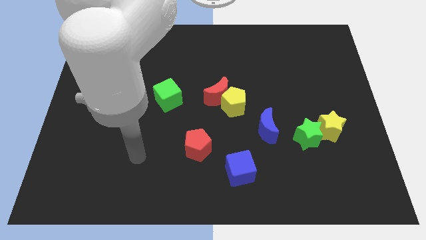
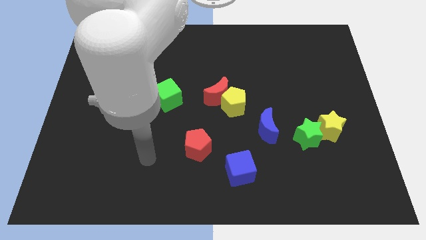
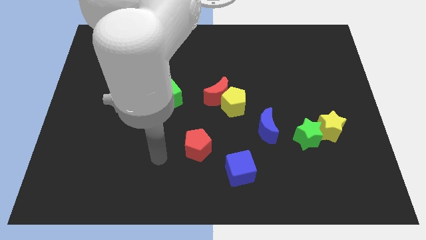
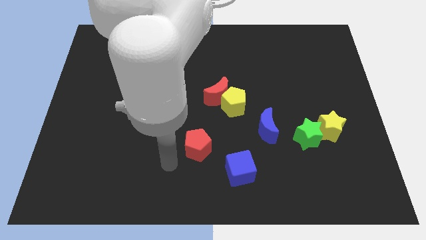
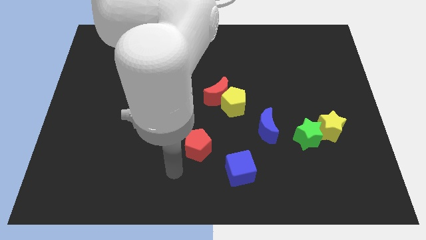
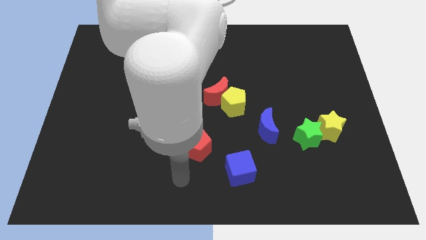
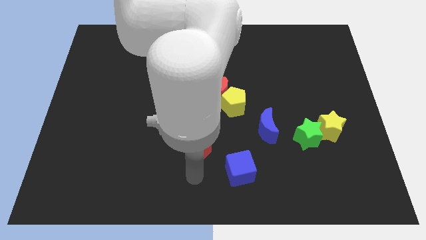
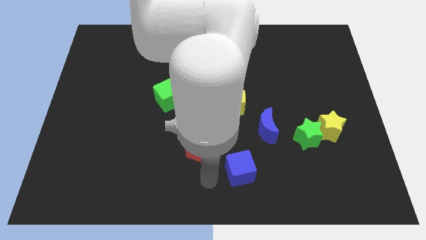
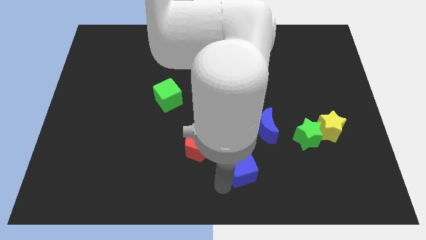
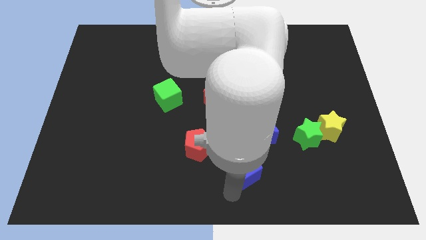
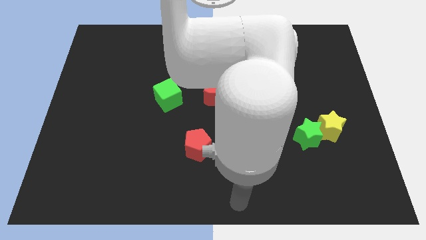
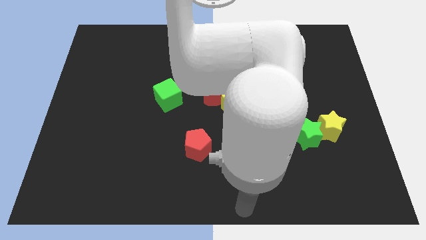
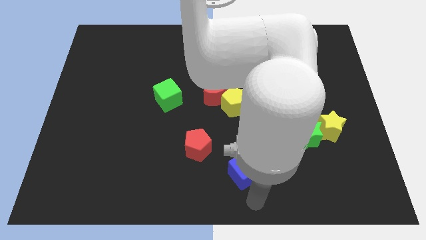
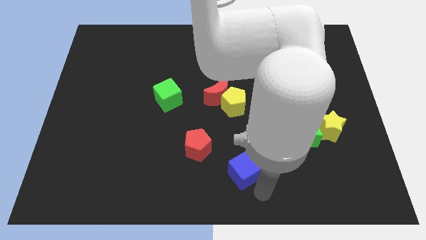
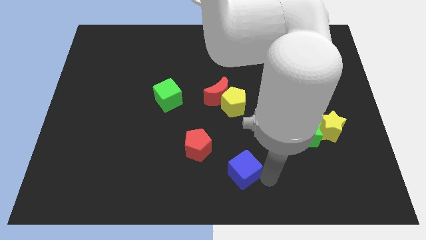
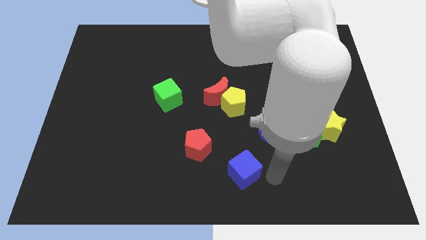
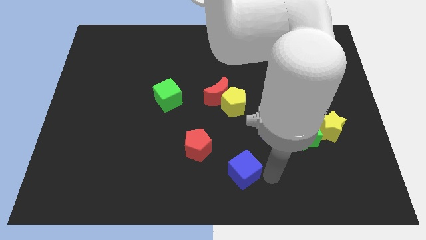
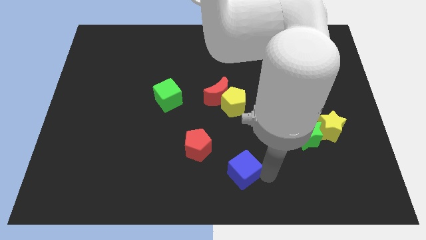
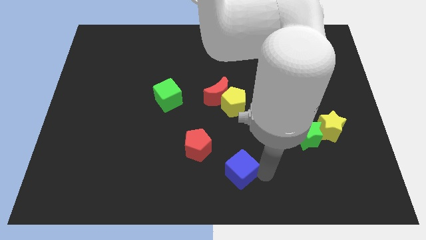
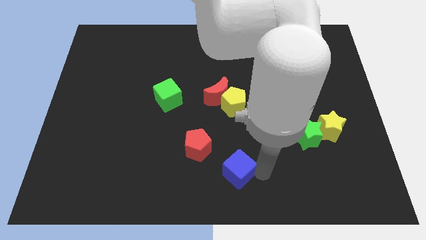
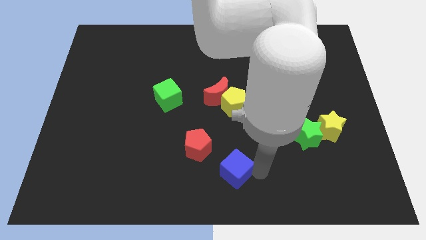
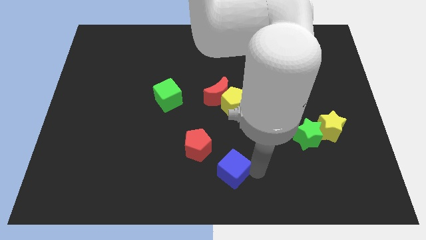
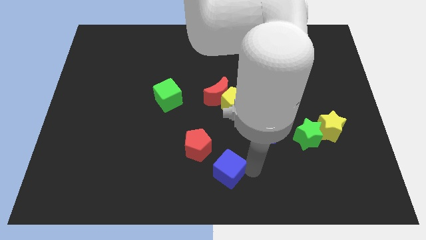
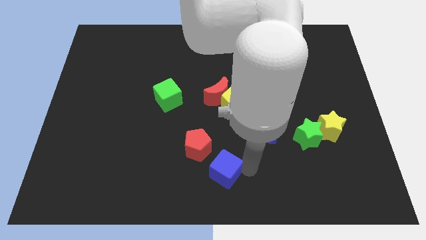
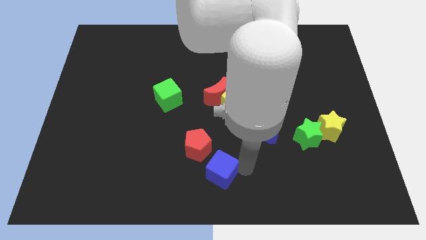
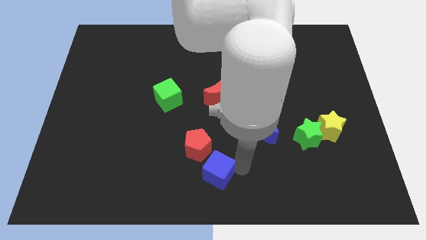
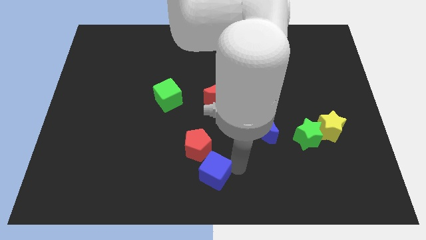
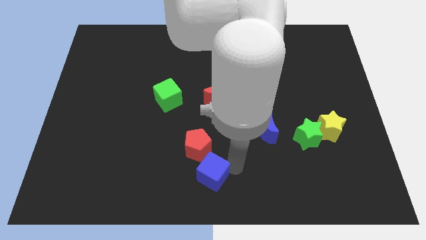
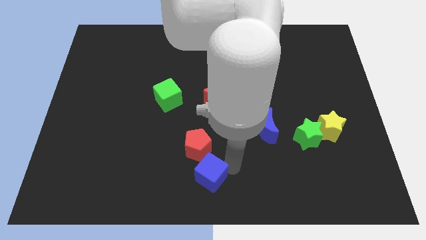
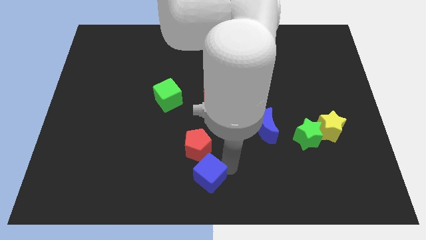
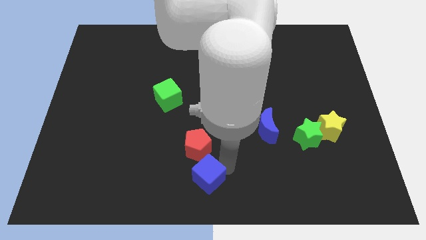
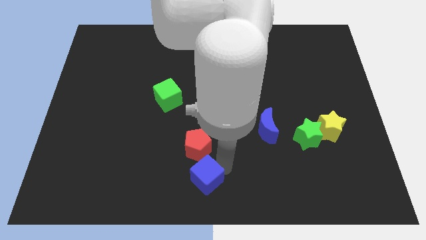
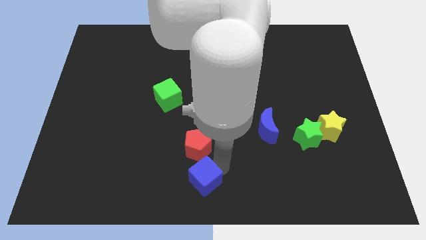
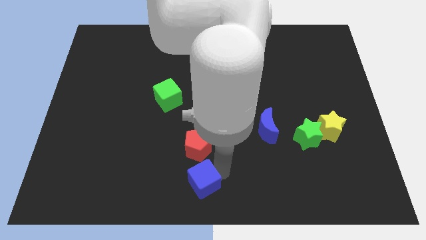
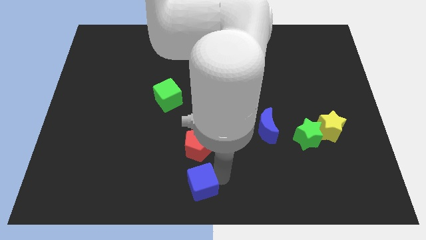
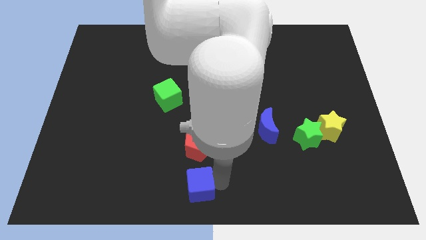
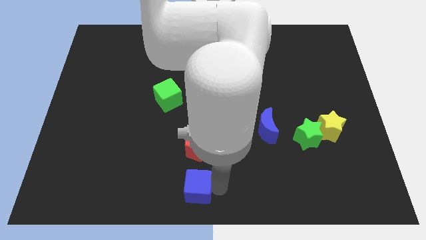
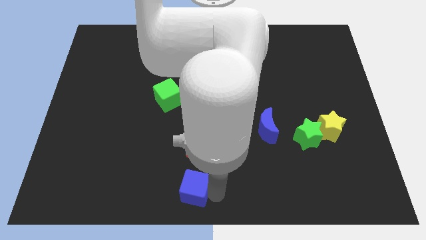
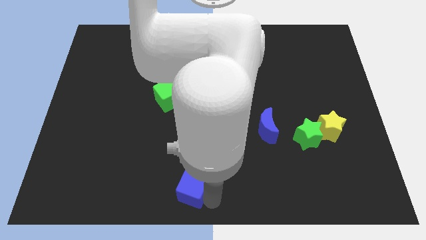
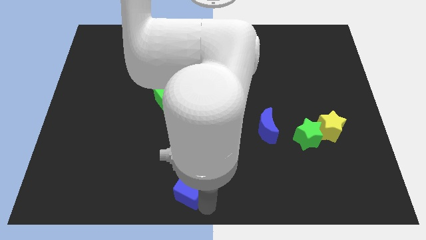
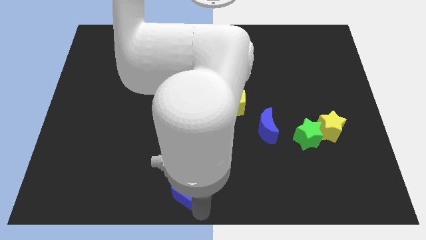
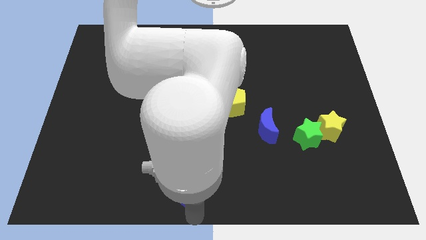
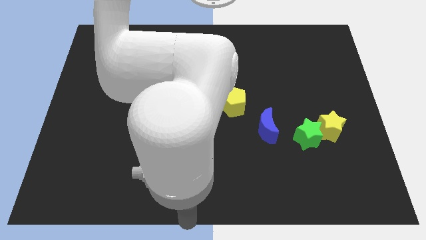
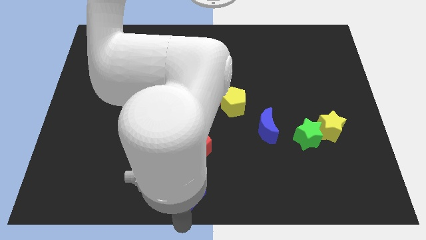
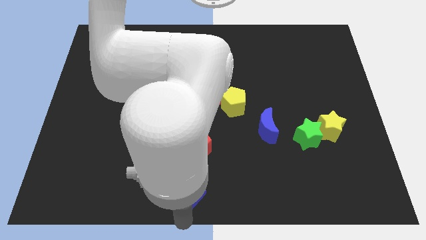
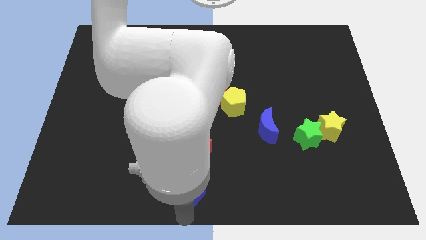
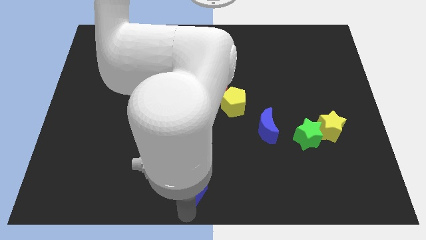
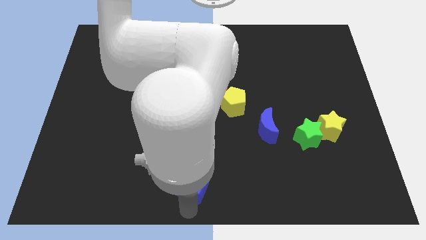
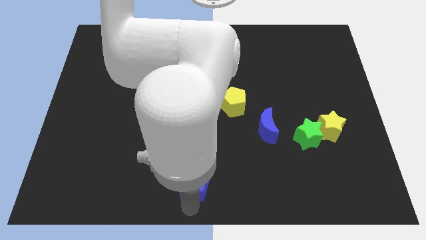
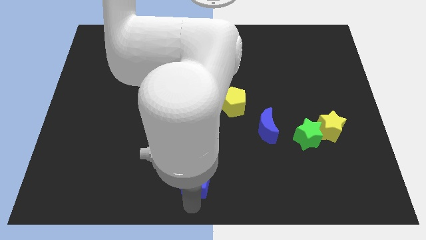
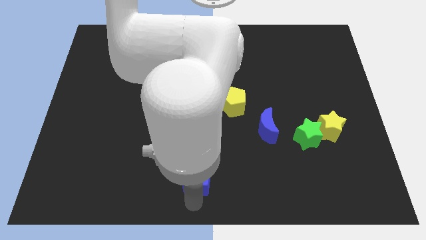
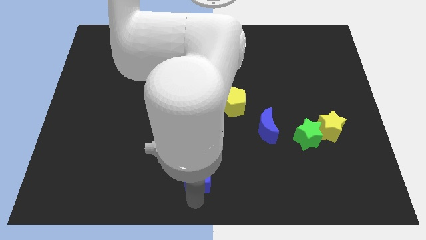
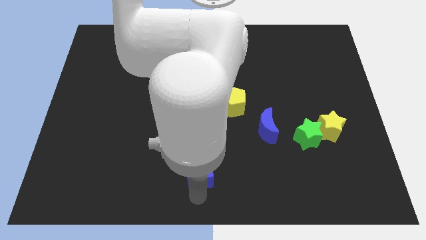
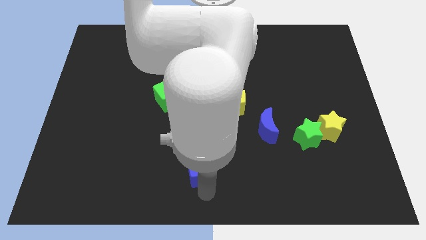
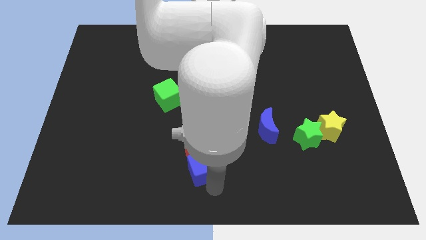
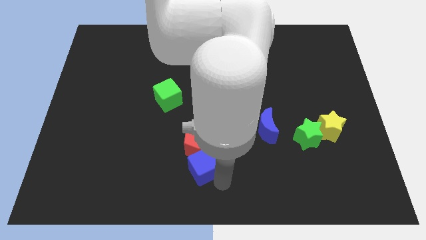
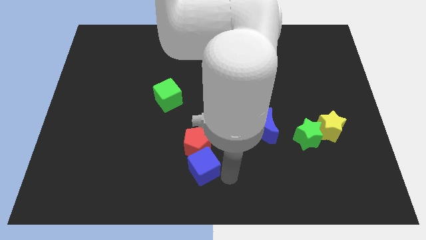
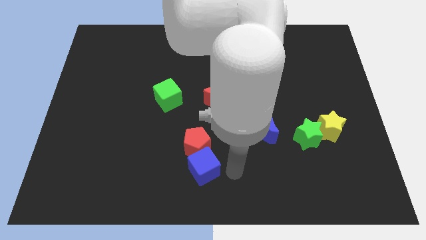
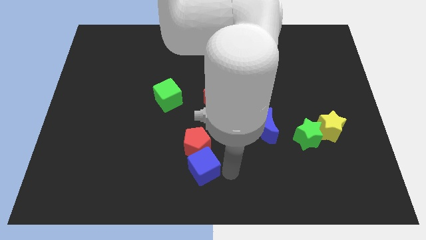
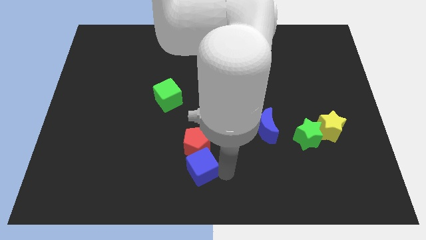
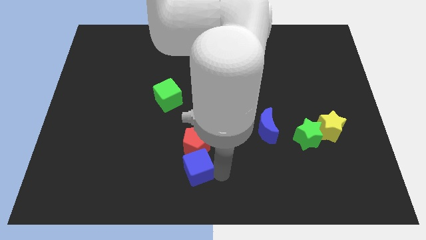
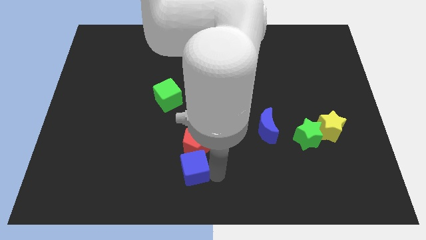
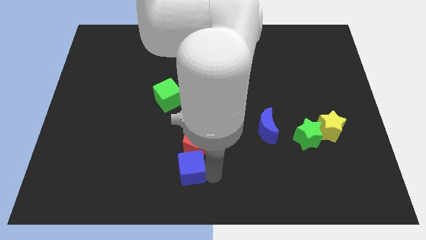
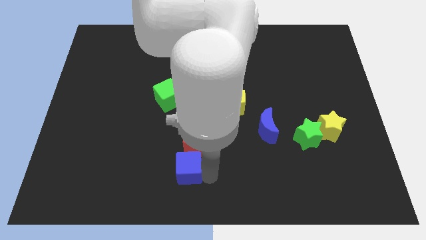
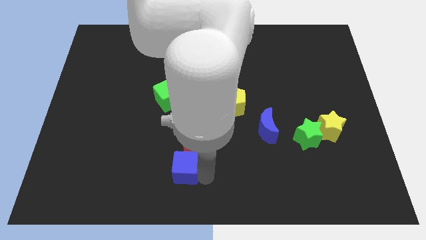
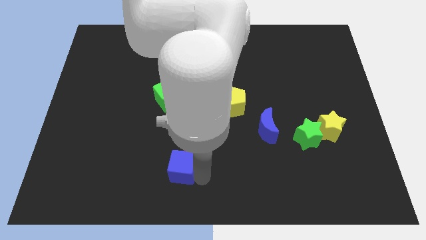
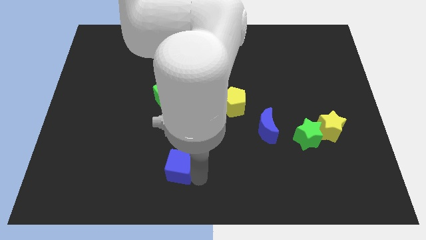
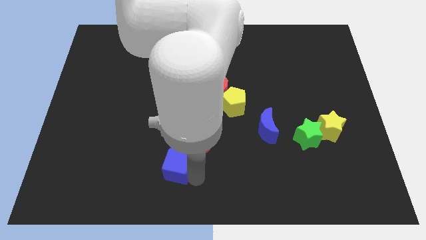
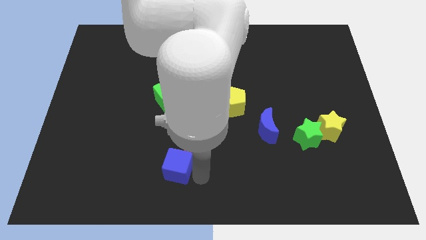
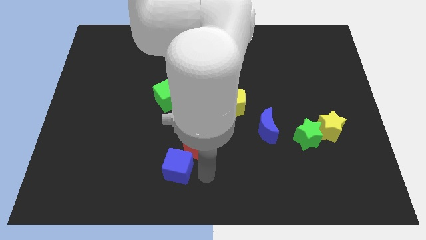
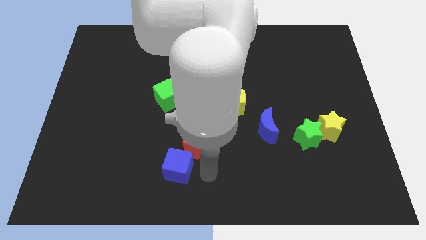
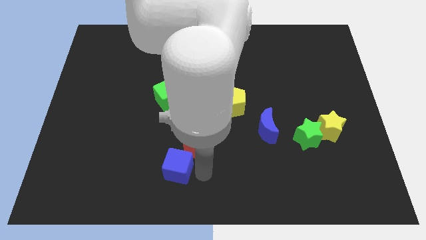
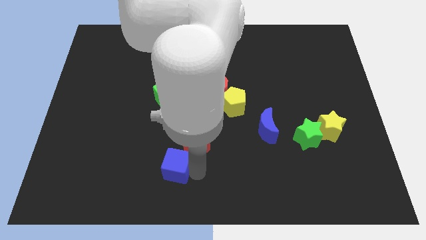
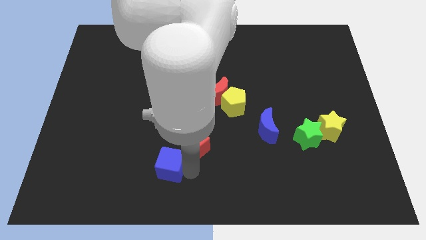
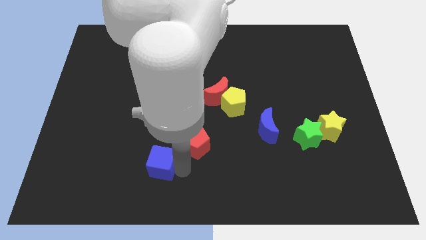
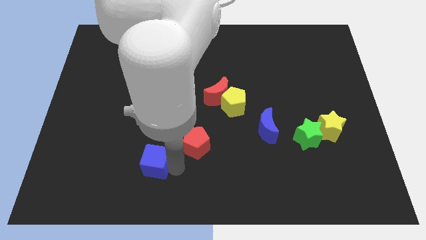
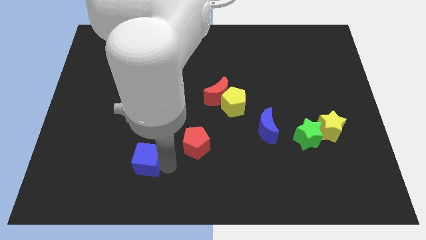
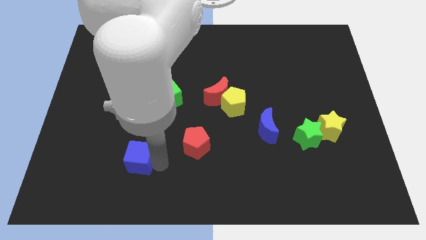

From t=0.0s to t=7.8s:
move the blue cube left

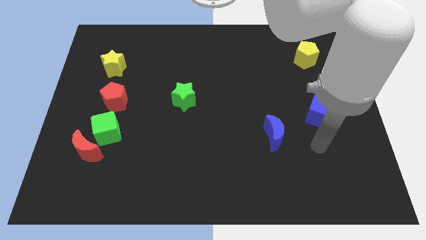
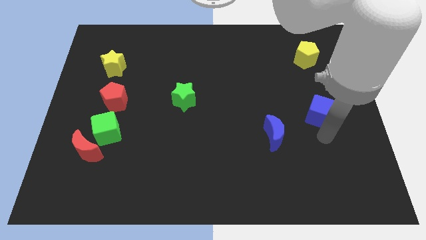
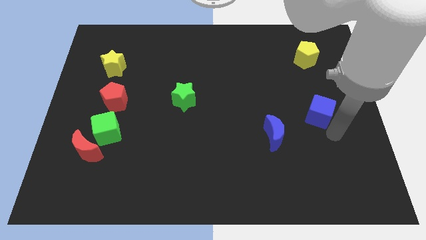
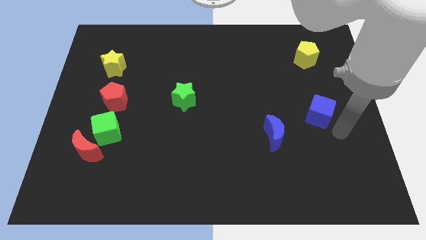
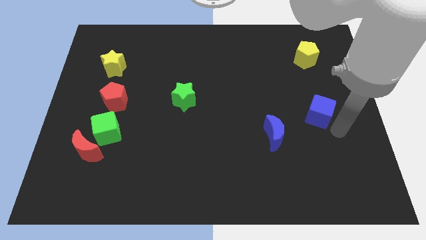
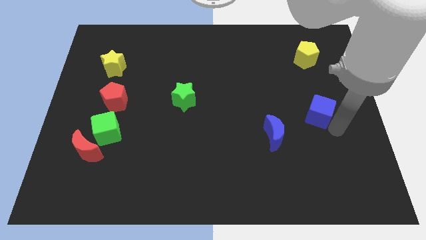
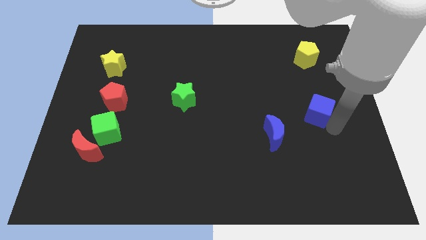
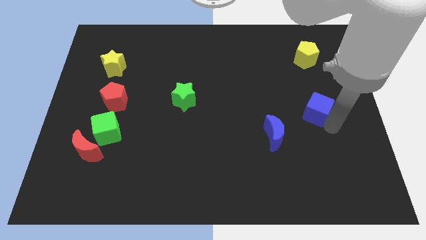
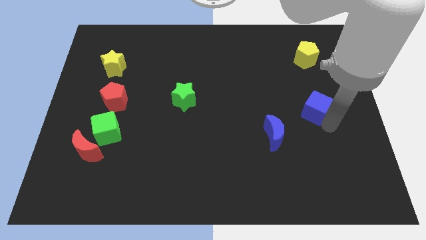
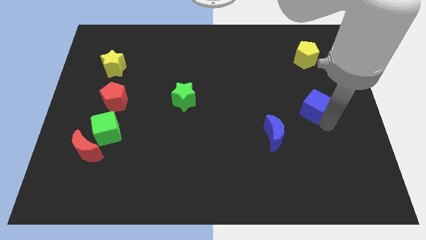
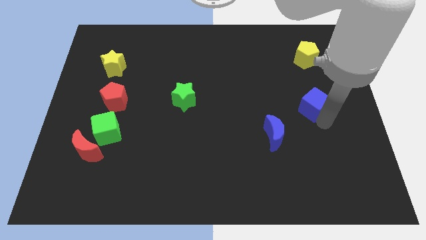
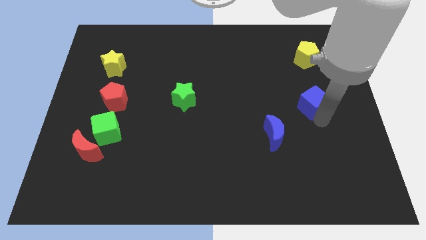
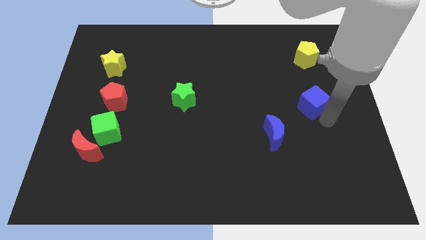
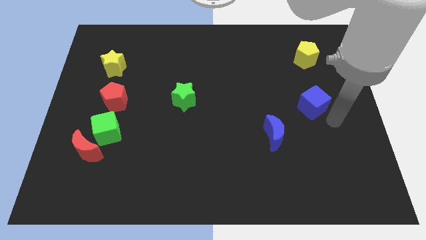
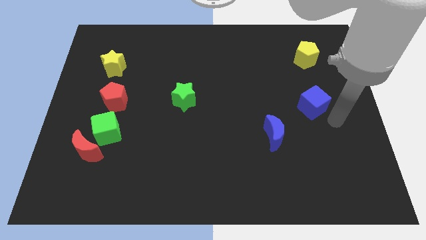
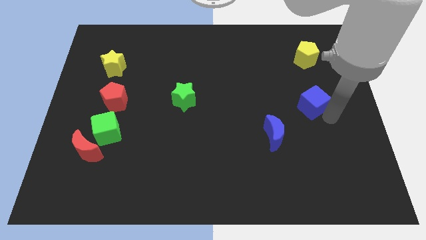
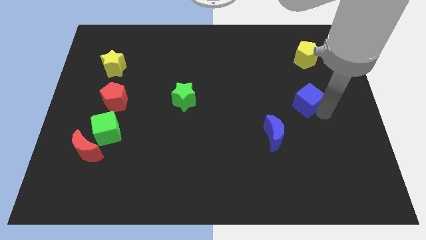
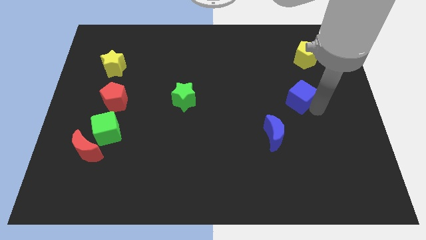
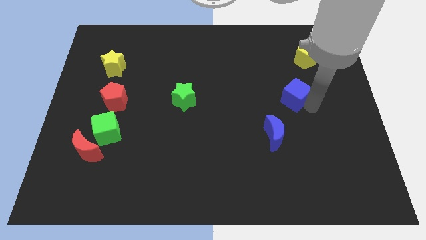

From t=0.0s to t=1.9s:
slightly move the blue cube upwards and to the left diagonally
